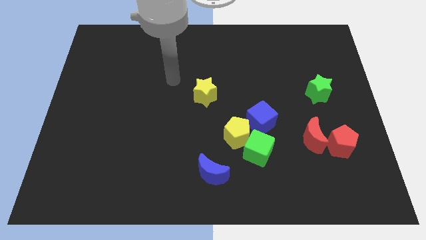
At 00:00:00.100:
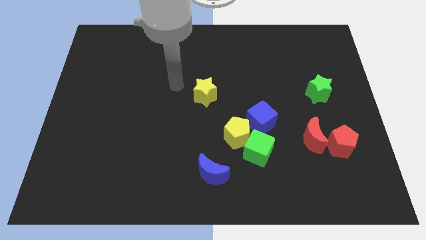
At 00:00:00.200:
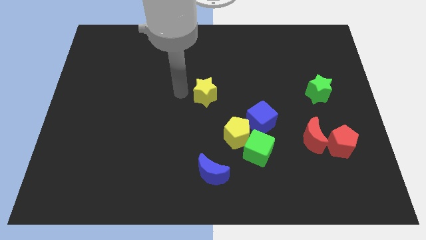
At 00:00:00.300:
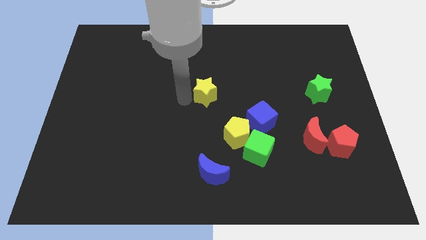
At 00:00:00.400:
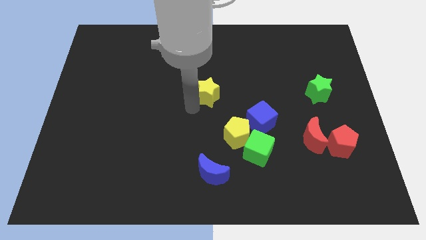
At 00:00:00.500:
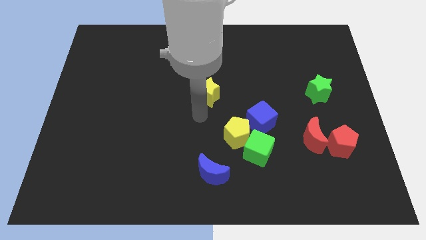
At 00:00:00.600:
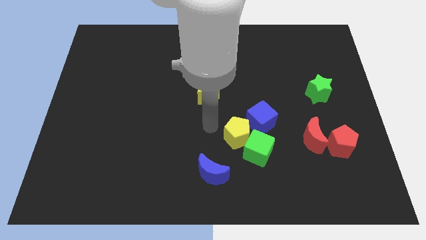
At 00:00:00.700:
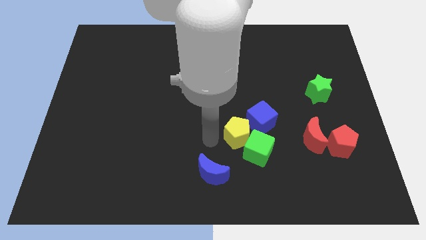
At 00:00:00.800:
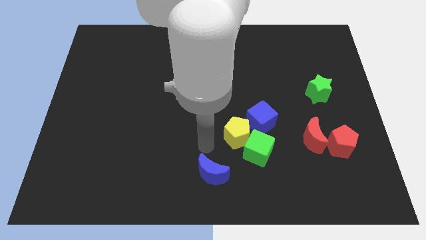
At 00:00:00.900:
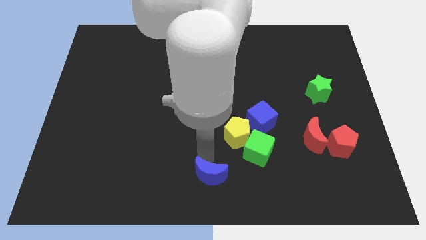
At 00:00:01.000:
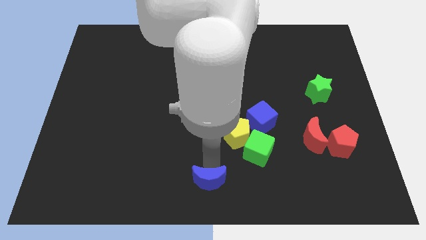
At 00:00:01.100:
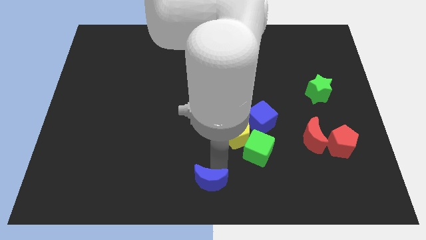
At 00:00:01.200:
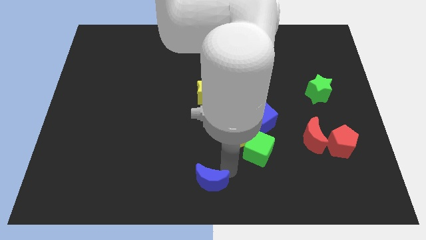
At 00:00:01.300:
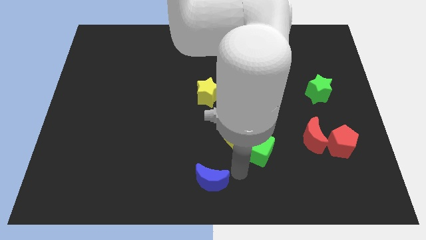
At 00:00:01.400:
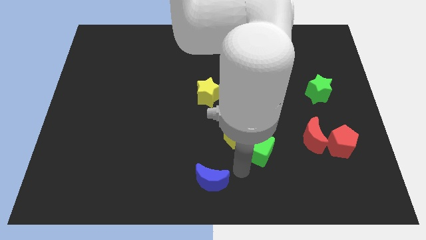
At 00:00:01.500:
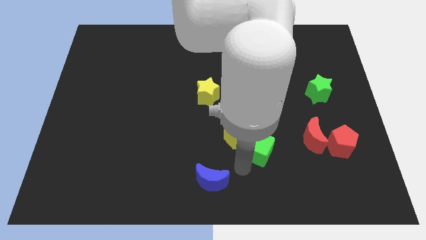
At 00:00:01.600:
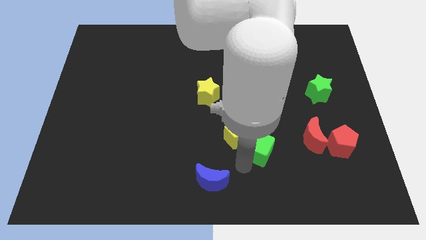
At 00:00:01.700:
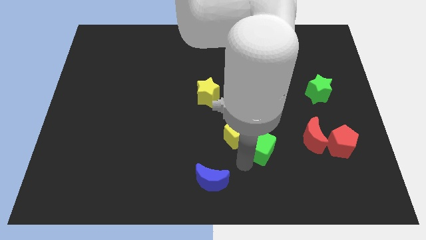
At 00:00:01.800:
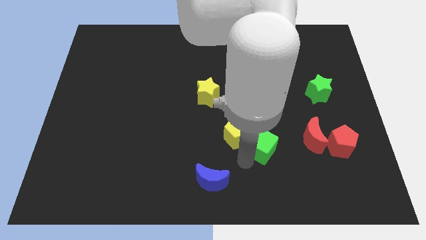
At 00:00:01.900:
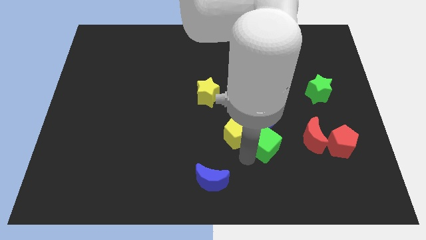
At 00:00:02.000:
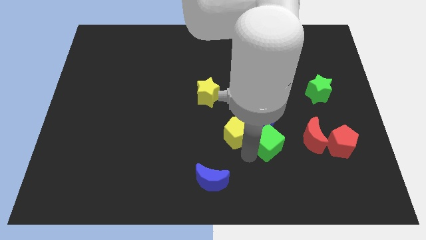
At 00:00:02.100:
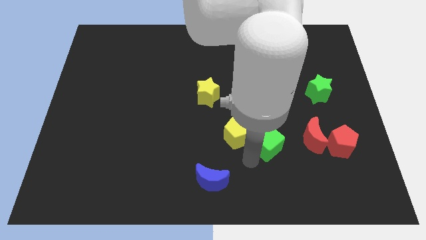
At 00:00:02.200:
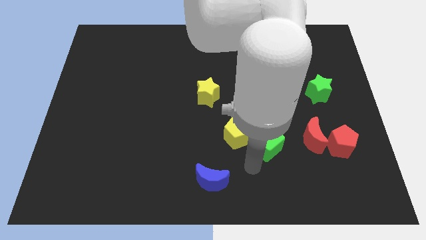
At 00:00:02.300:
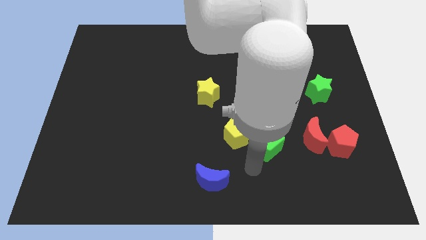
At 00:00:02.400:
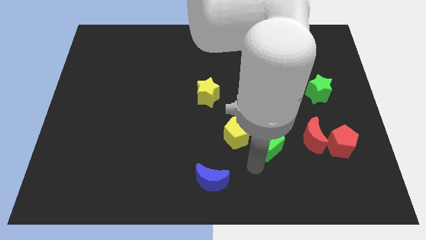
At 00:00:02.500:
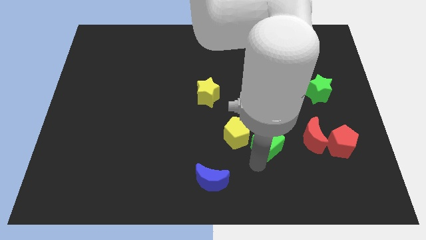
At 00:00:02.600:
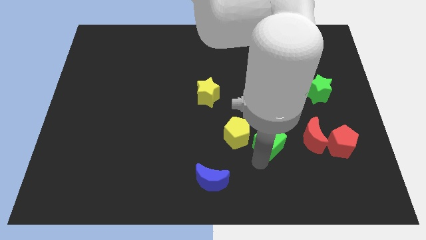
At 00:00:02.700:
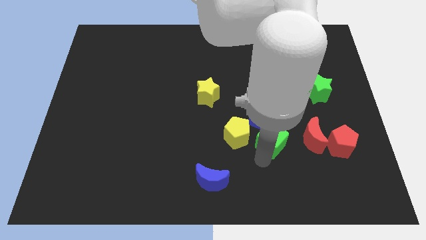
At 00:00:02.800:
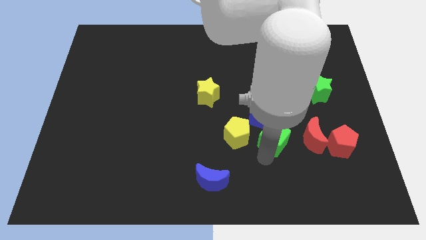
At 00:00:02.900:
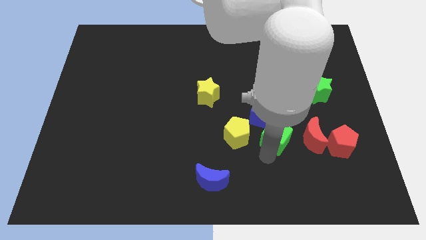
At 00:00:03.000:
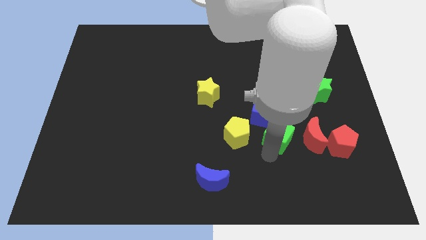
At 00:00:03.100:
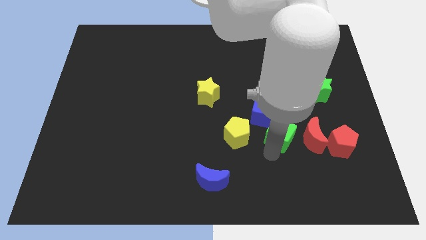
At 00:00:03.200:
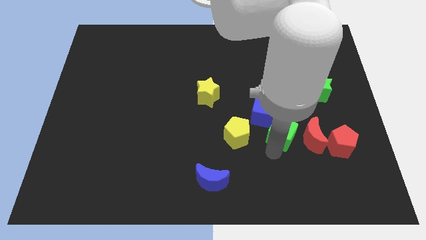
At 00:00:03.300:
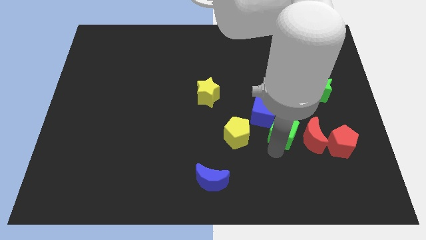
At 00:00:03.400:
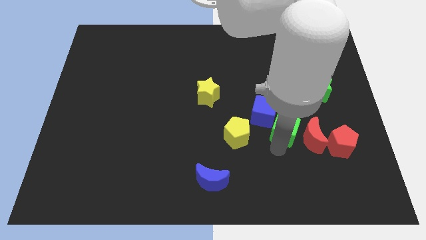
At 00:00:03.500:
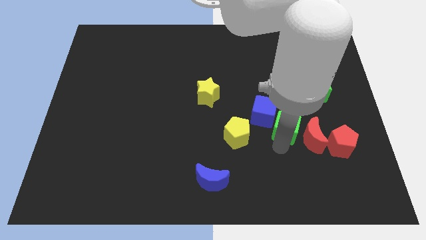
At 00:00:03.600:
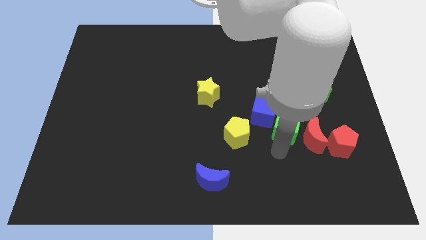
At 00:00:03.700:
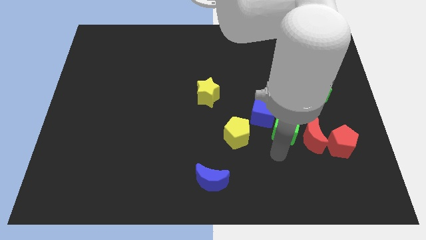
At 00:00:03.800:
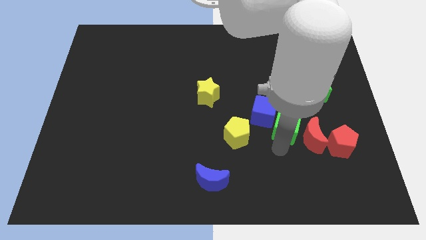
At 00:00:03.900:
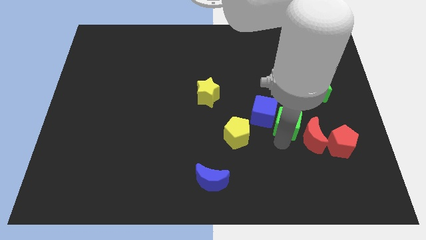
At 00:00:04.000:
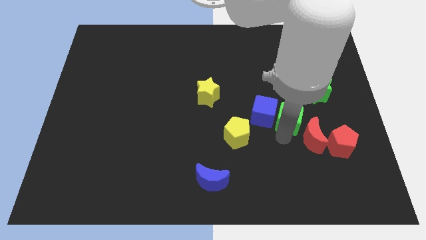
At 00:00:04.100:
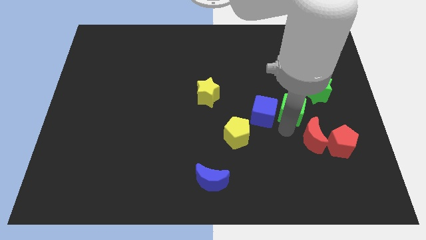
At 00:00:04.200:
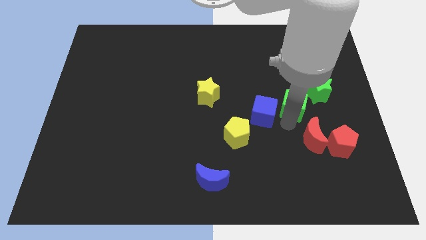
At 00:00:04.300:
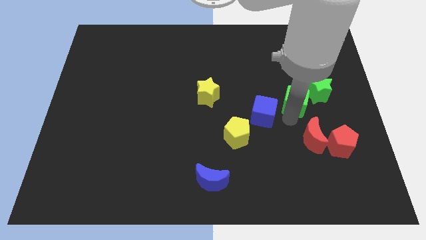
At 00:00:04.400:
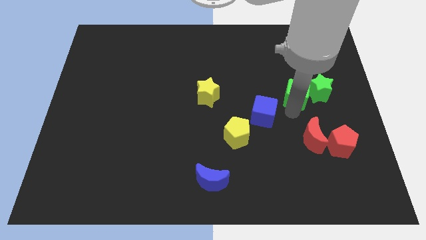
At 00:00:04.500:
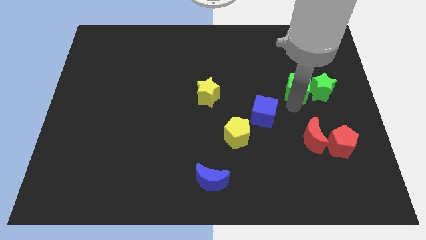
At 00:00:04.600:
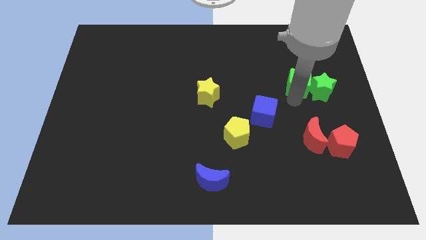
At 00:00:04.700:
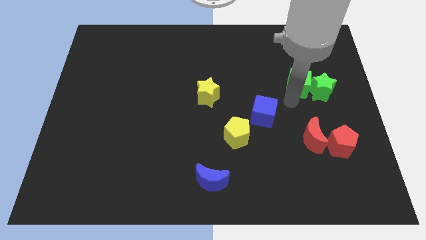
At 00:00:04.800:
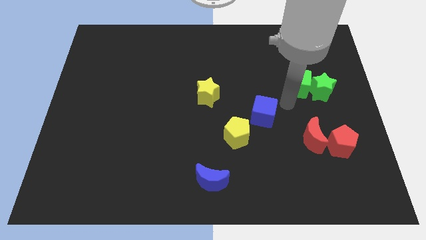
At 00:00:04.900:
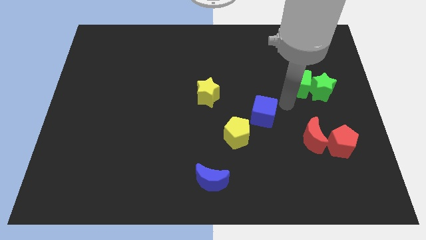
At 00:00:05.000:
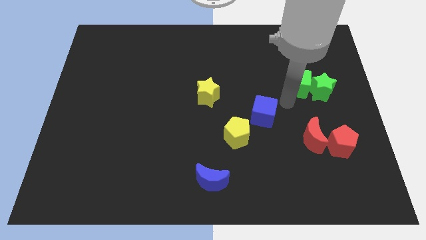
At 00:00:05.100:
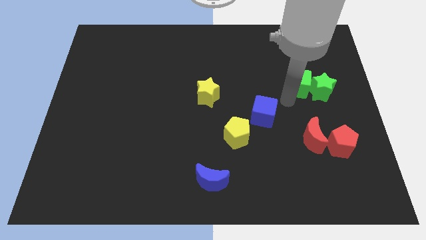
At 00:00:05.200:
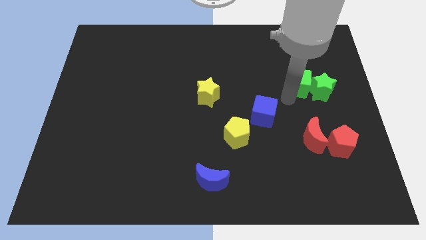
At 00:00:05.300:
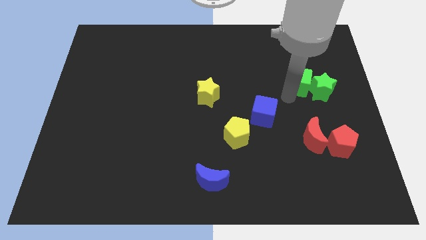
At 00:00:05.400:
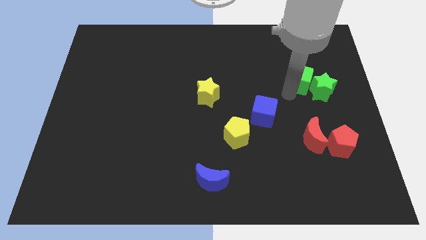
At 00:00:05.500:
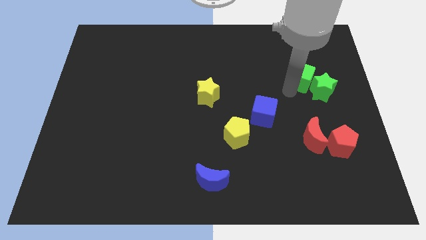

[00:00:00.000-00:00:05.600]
move the green cube to the top of the green star

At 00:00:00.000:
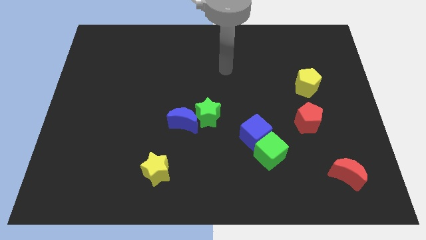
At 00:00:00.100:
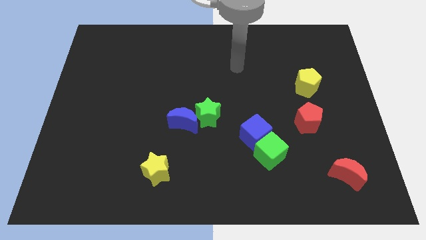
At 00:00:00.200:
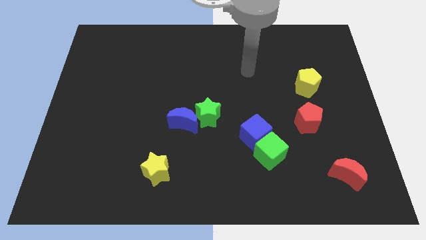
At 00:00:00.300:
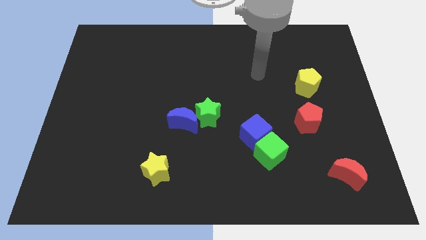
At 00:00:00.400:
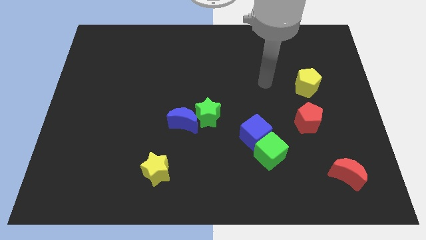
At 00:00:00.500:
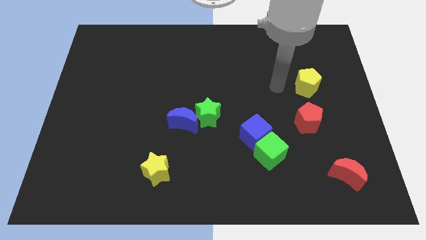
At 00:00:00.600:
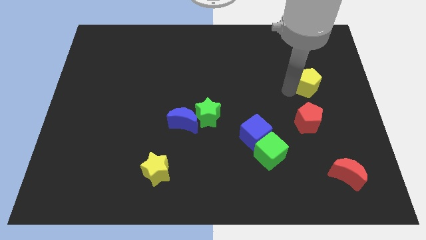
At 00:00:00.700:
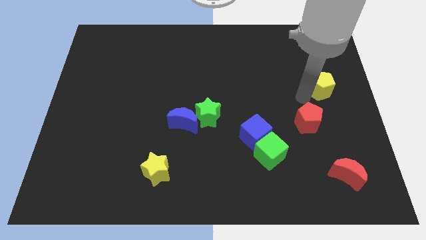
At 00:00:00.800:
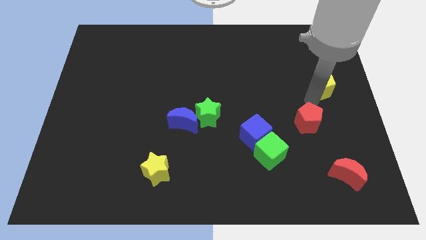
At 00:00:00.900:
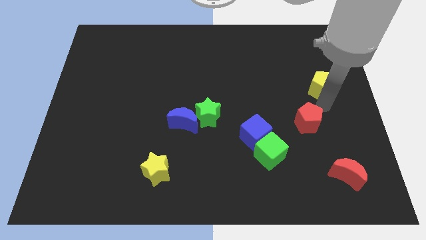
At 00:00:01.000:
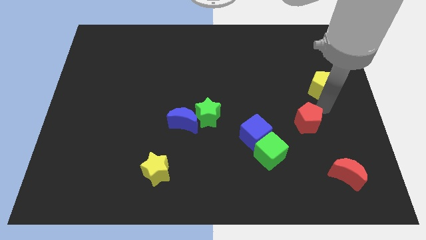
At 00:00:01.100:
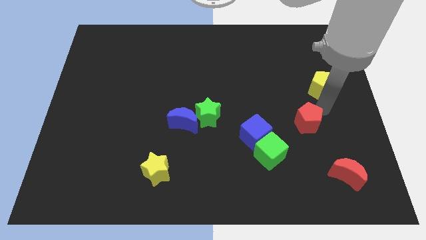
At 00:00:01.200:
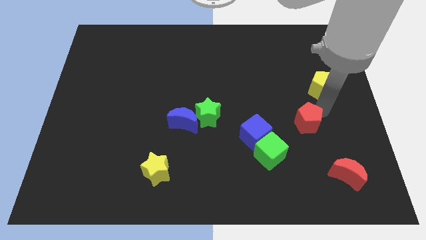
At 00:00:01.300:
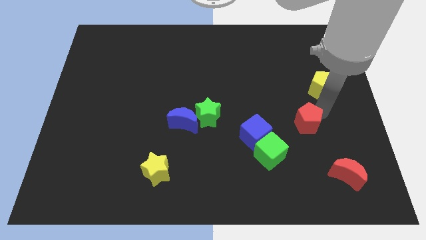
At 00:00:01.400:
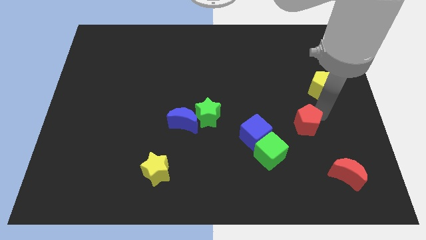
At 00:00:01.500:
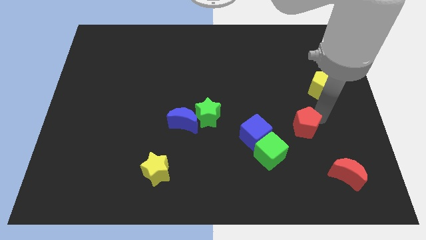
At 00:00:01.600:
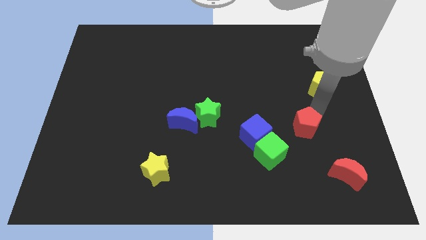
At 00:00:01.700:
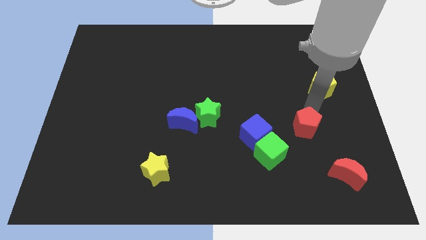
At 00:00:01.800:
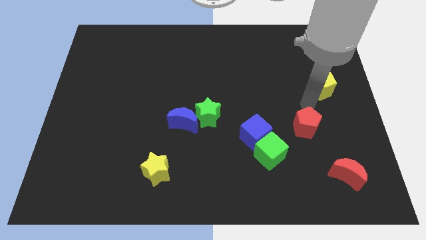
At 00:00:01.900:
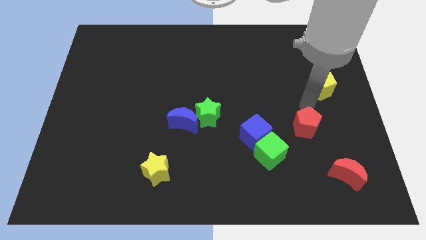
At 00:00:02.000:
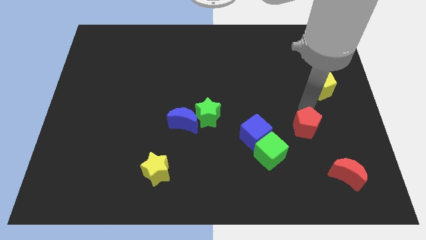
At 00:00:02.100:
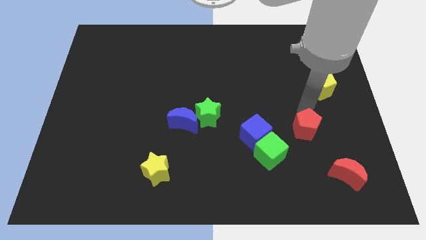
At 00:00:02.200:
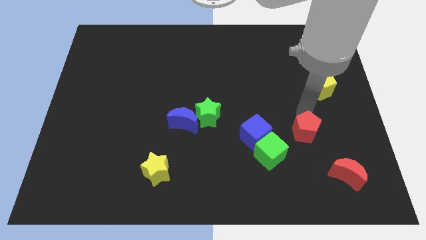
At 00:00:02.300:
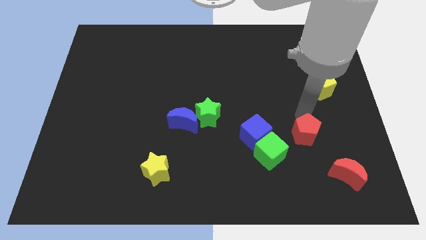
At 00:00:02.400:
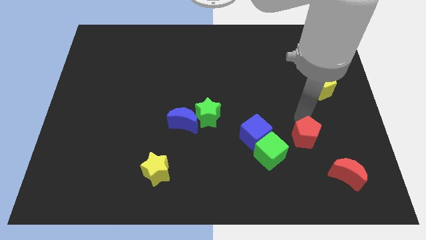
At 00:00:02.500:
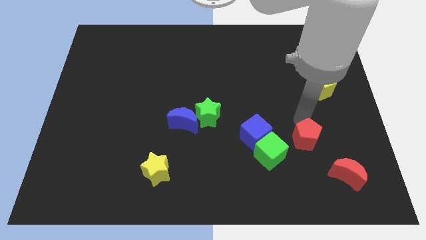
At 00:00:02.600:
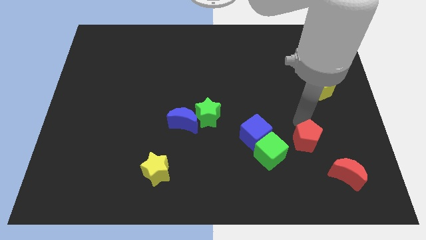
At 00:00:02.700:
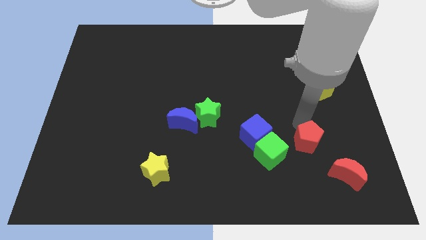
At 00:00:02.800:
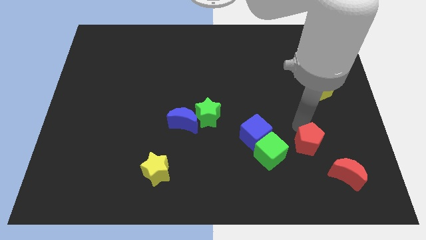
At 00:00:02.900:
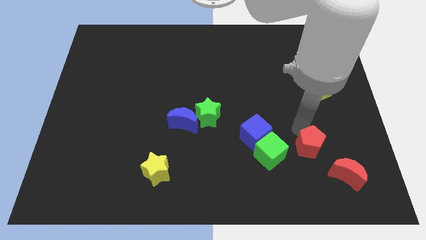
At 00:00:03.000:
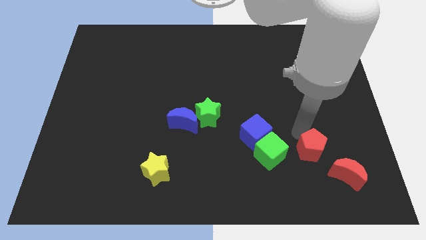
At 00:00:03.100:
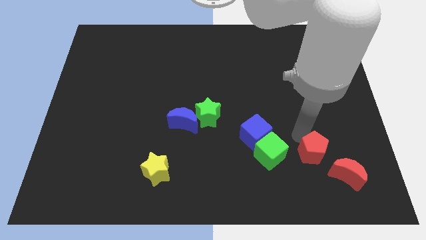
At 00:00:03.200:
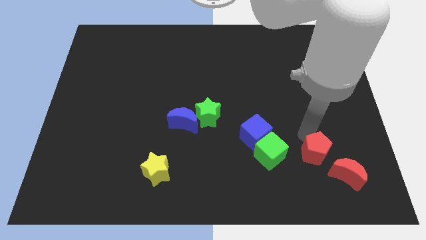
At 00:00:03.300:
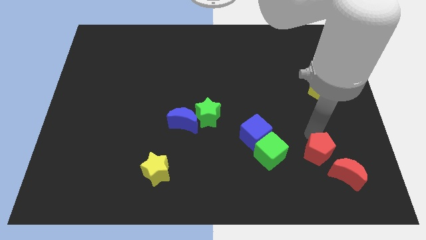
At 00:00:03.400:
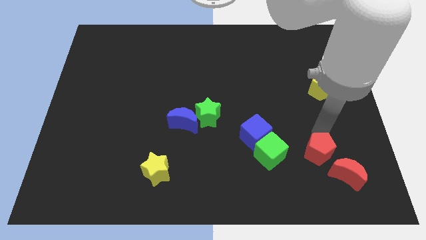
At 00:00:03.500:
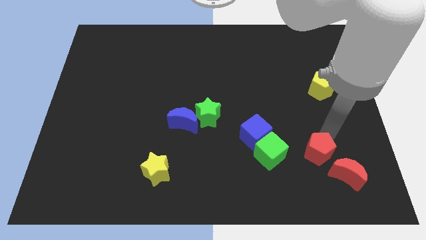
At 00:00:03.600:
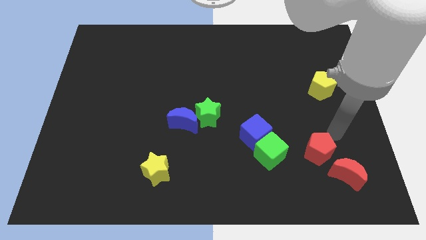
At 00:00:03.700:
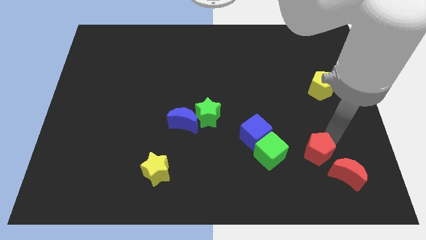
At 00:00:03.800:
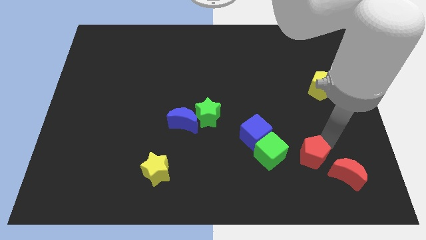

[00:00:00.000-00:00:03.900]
put the red pentagon to the left side of the red moon
